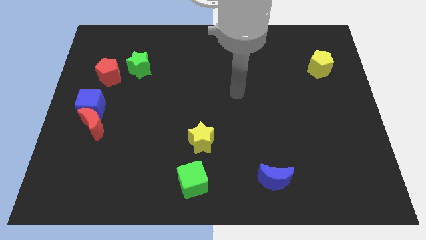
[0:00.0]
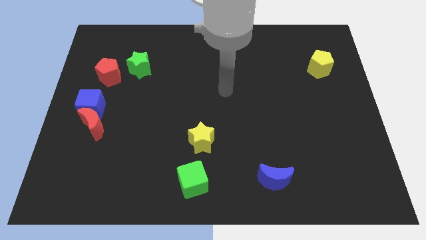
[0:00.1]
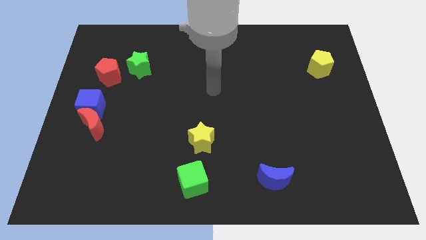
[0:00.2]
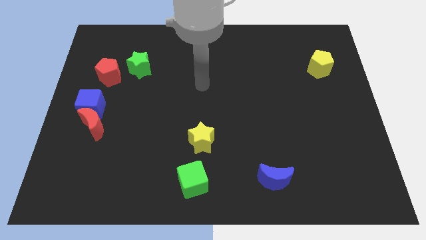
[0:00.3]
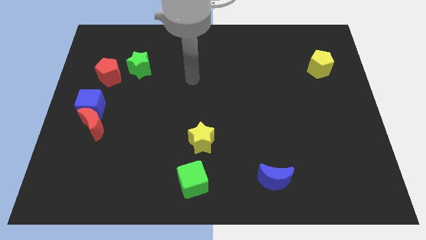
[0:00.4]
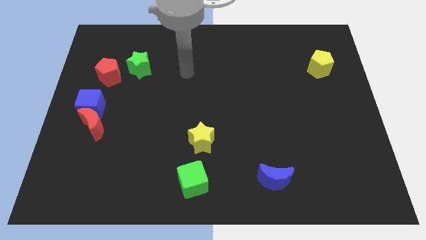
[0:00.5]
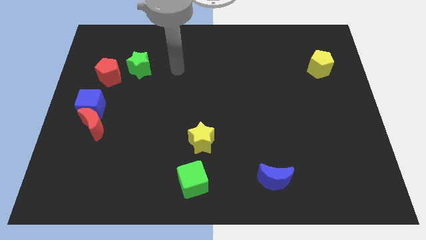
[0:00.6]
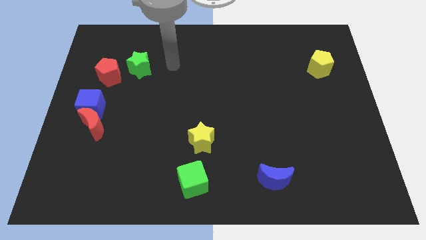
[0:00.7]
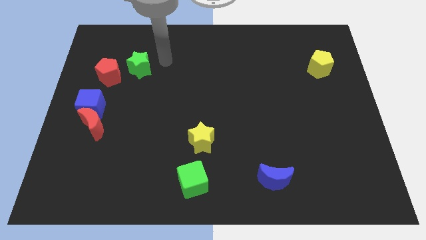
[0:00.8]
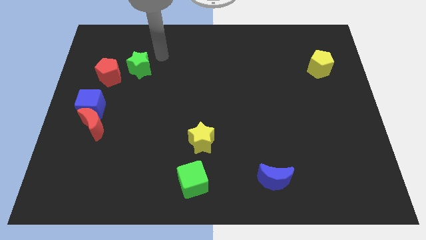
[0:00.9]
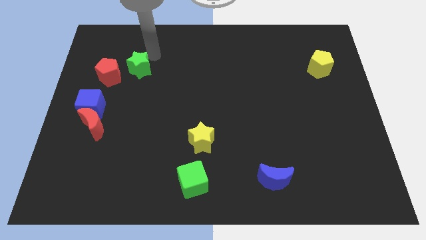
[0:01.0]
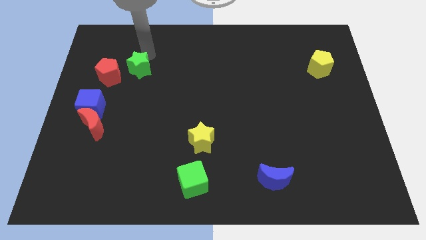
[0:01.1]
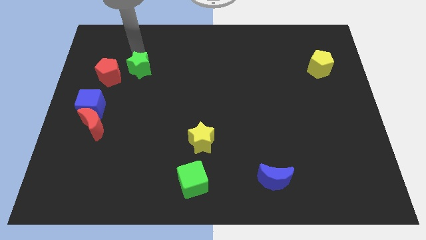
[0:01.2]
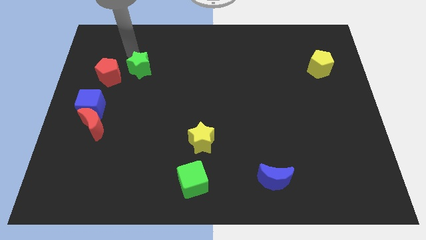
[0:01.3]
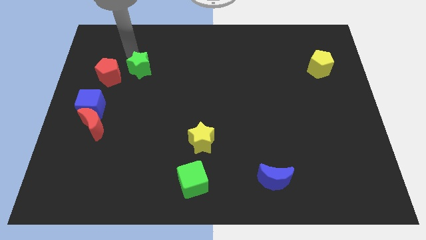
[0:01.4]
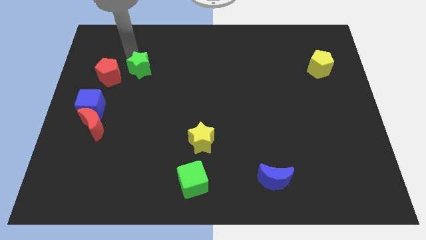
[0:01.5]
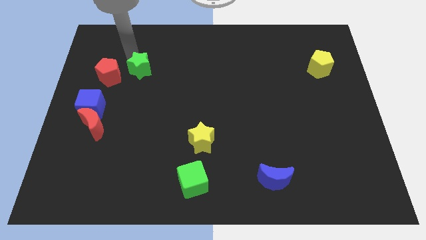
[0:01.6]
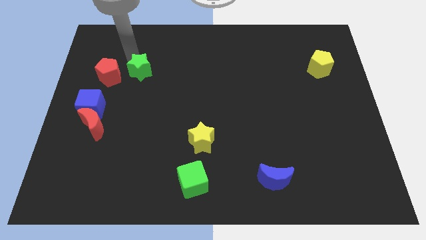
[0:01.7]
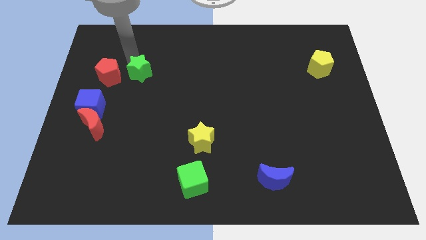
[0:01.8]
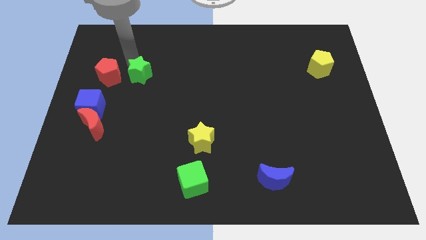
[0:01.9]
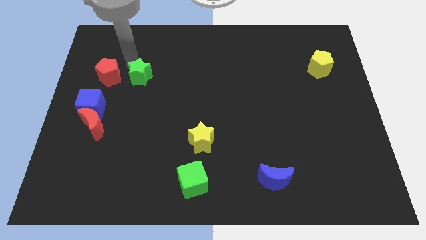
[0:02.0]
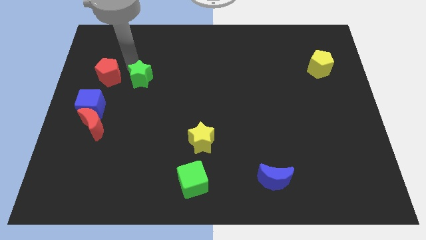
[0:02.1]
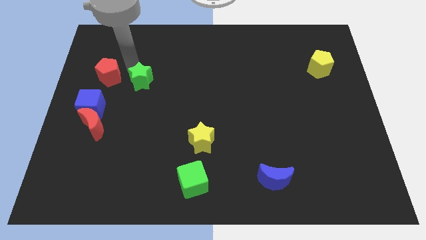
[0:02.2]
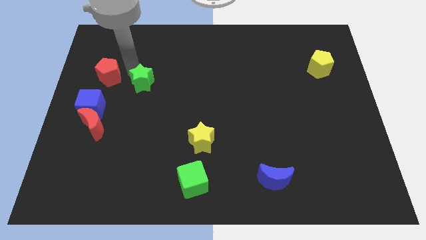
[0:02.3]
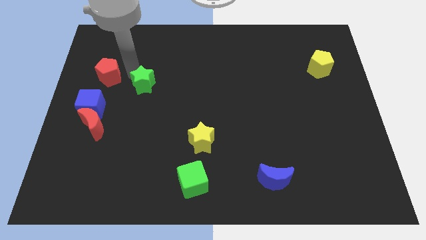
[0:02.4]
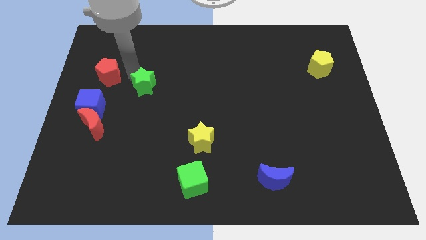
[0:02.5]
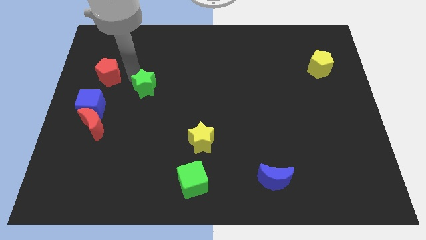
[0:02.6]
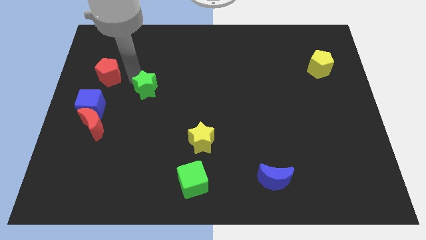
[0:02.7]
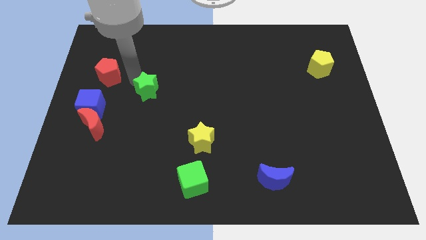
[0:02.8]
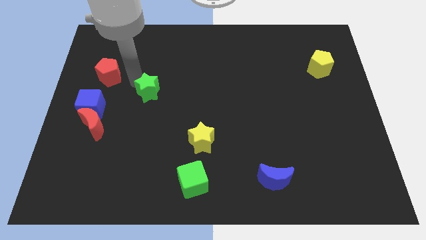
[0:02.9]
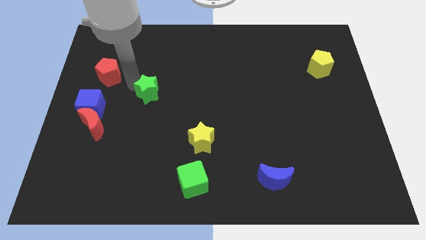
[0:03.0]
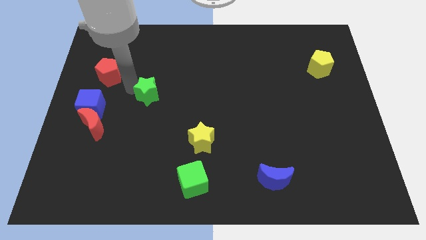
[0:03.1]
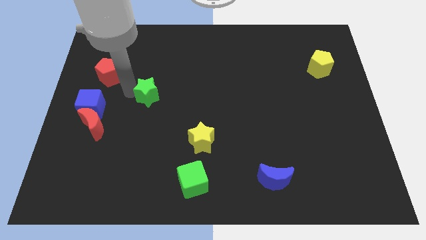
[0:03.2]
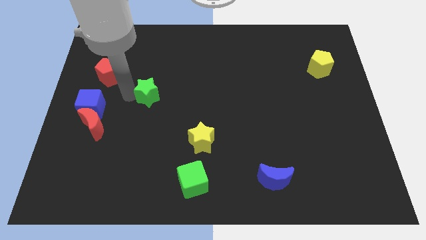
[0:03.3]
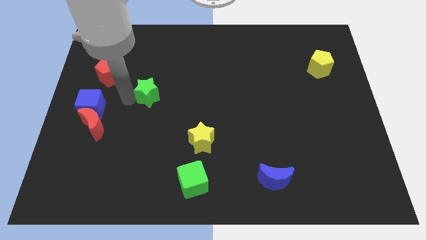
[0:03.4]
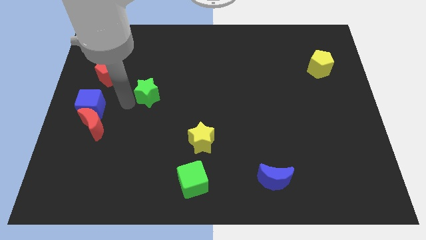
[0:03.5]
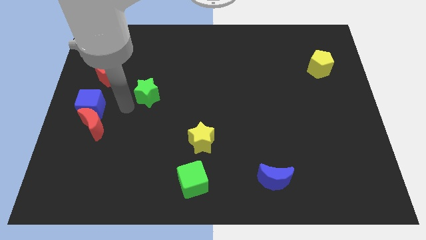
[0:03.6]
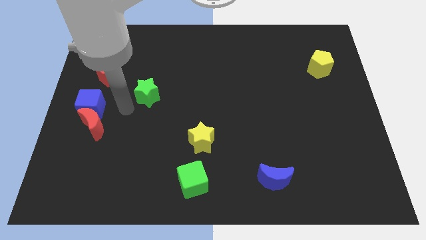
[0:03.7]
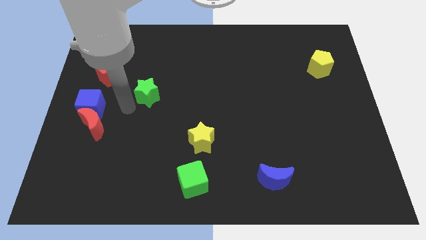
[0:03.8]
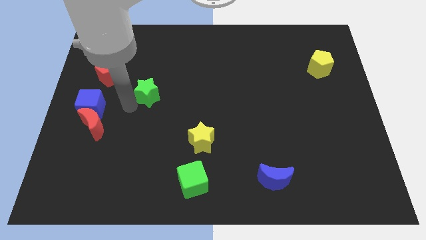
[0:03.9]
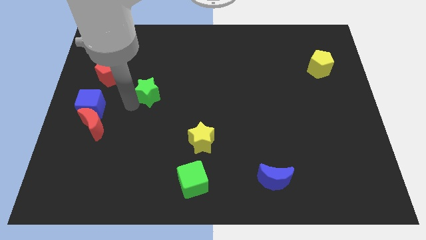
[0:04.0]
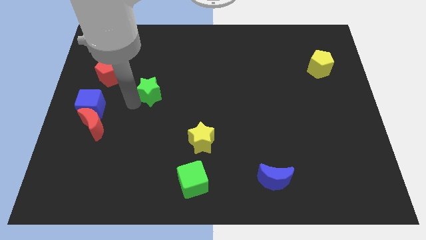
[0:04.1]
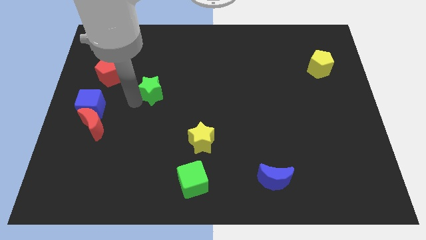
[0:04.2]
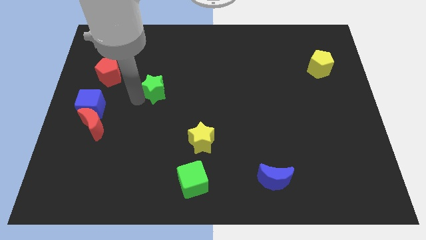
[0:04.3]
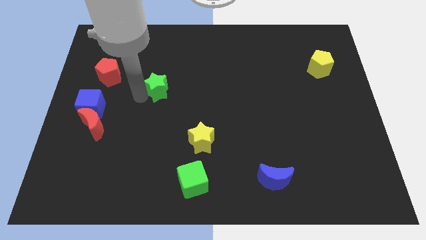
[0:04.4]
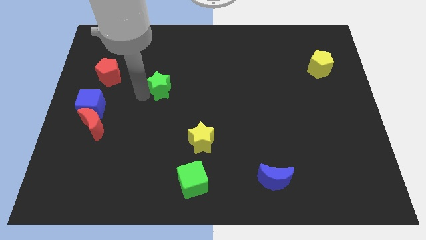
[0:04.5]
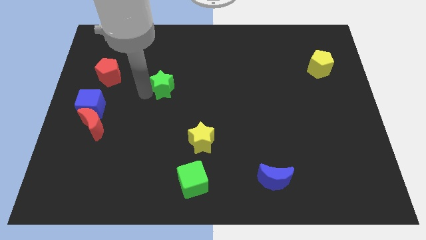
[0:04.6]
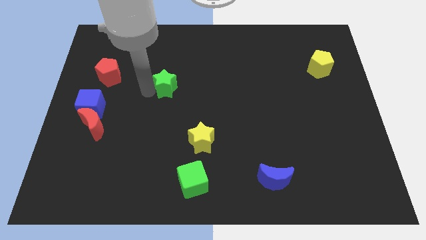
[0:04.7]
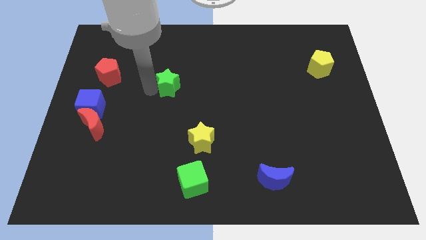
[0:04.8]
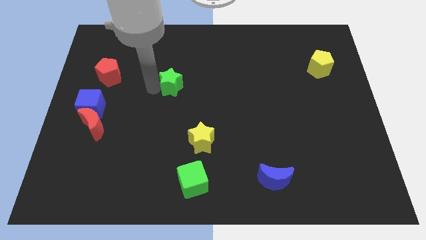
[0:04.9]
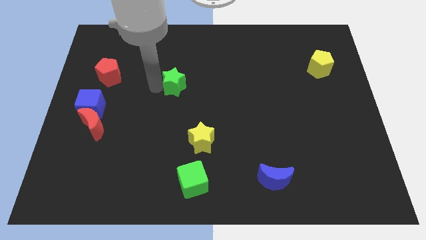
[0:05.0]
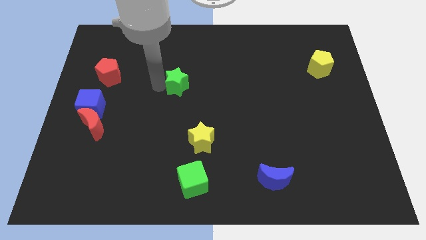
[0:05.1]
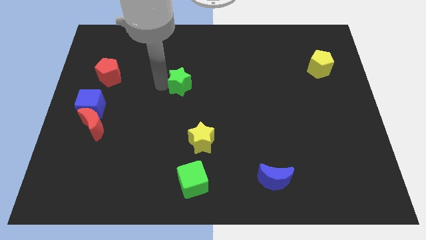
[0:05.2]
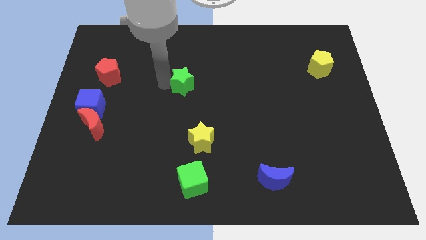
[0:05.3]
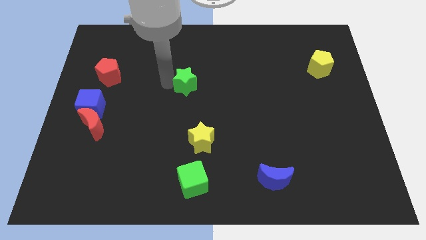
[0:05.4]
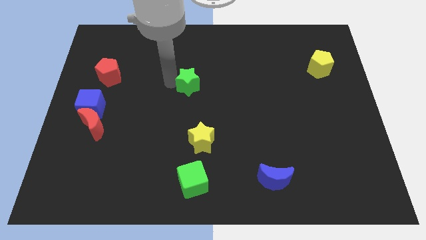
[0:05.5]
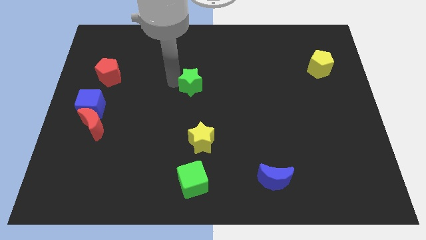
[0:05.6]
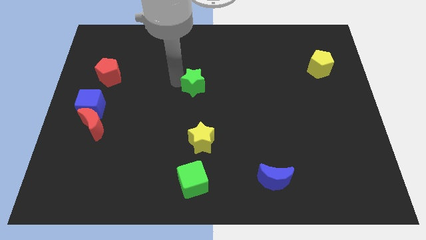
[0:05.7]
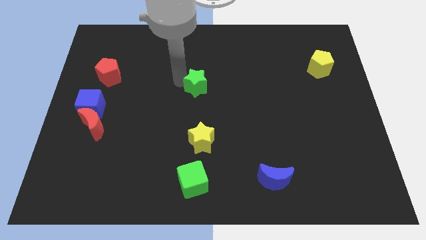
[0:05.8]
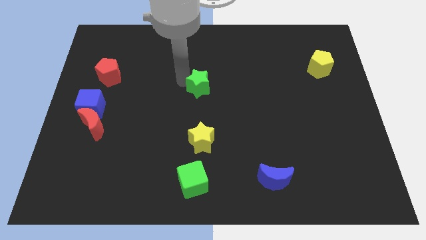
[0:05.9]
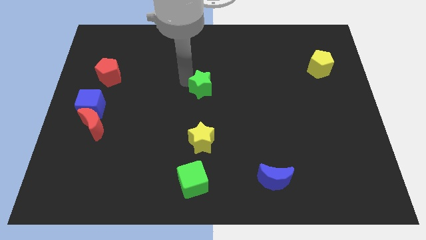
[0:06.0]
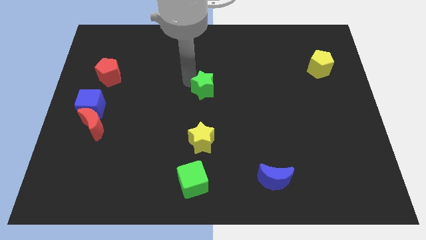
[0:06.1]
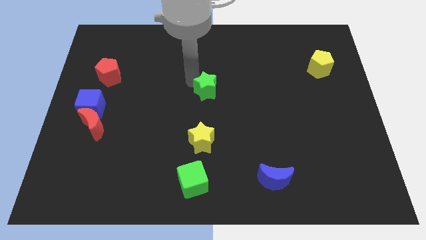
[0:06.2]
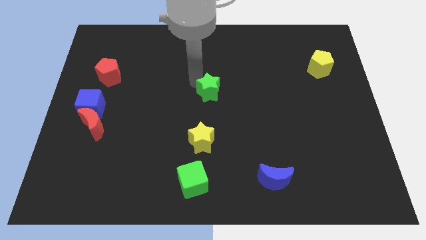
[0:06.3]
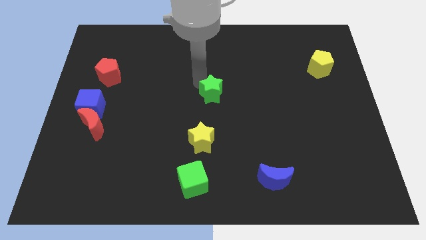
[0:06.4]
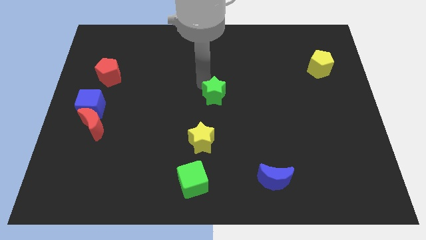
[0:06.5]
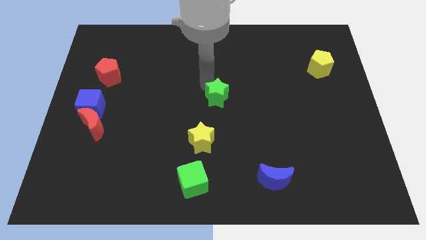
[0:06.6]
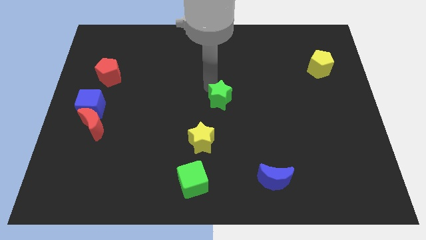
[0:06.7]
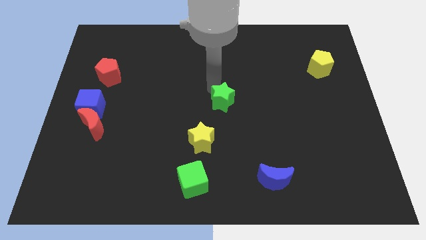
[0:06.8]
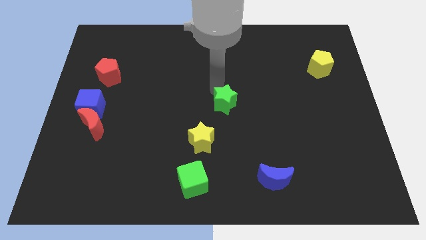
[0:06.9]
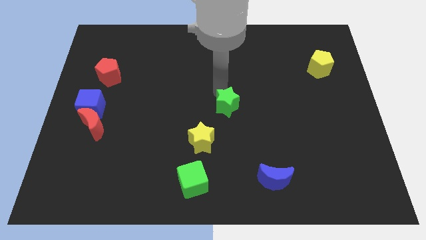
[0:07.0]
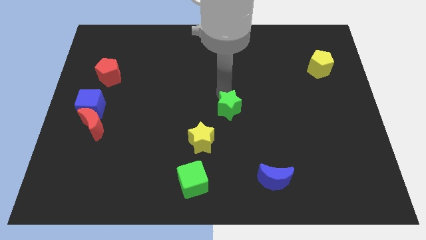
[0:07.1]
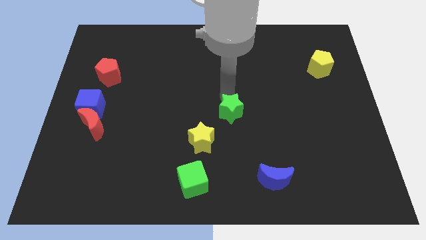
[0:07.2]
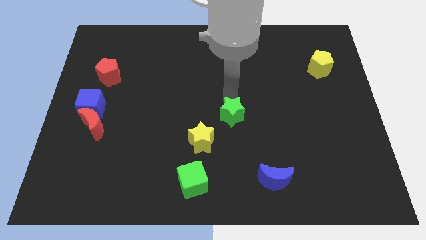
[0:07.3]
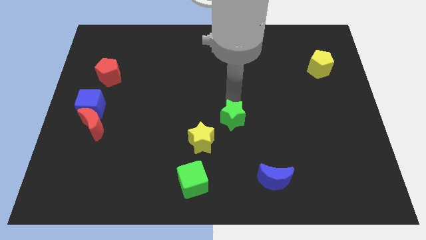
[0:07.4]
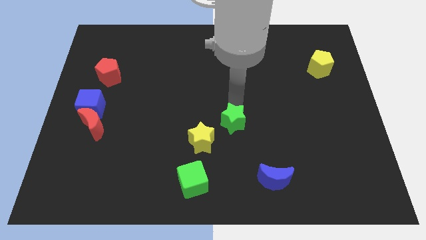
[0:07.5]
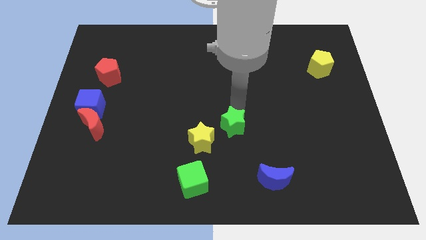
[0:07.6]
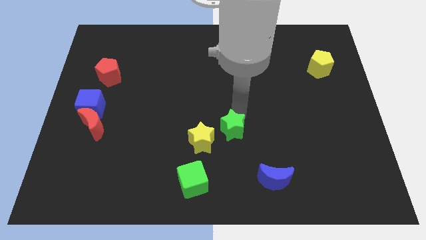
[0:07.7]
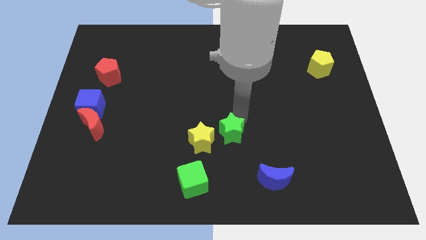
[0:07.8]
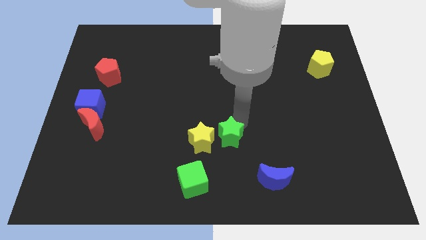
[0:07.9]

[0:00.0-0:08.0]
put the green star close to the yellow star
